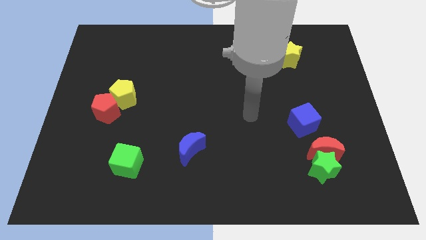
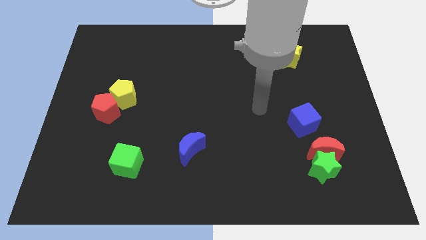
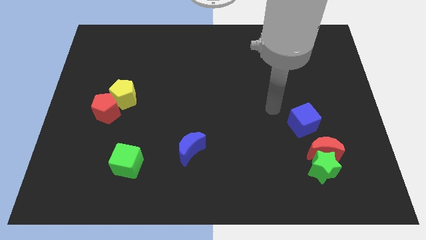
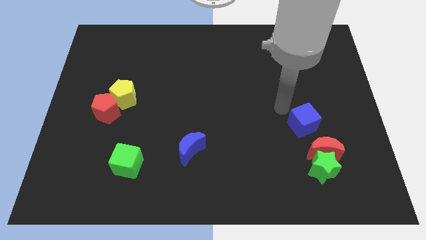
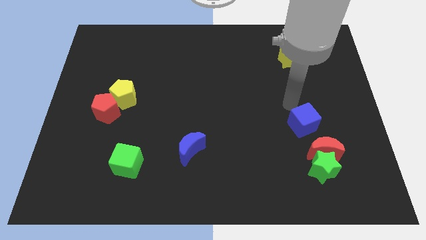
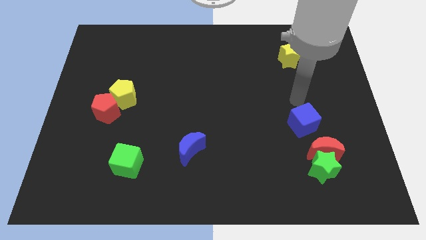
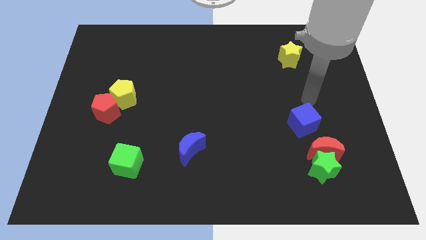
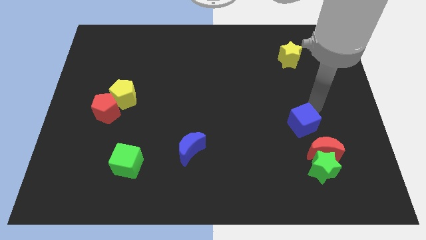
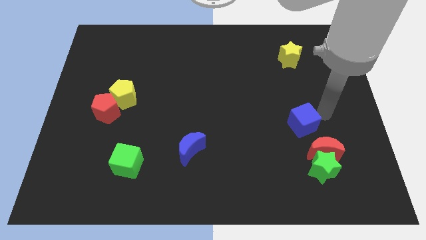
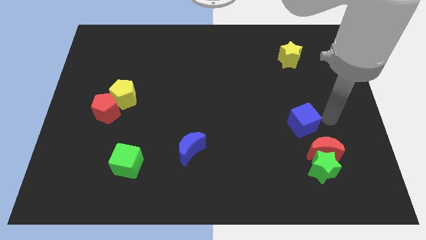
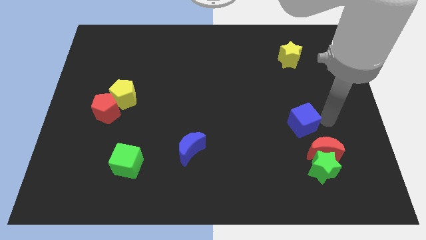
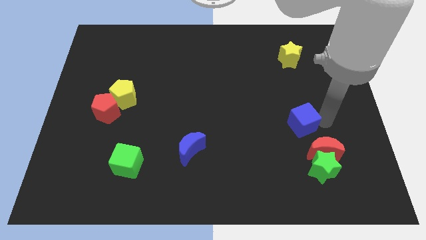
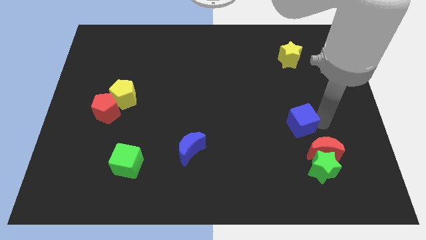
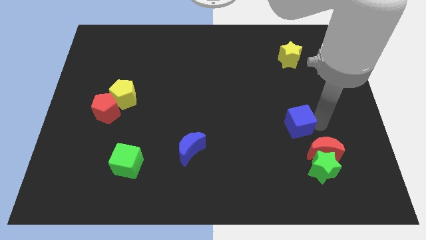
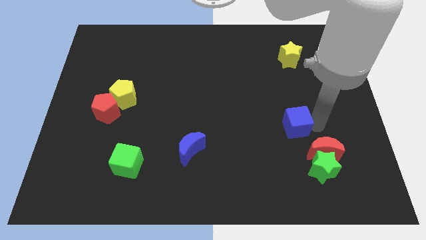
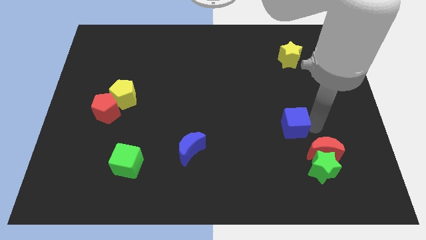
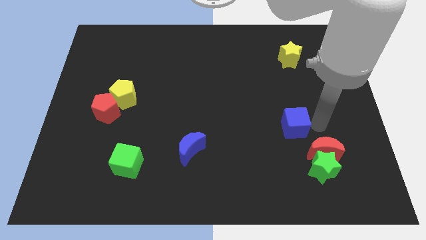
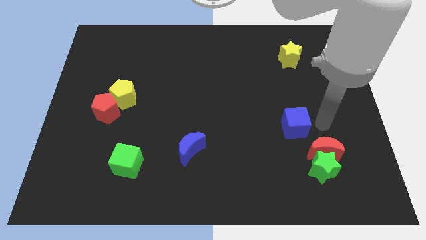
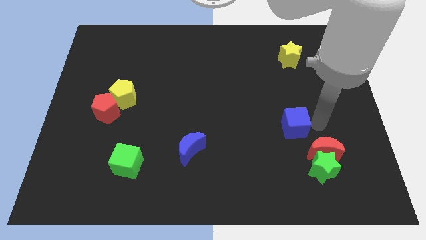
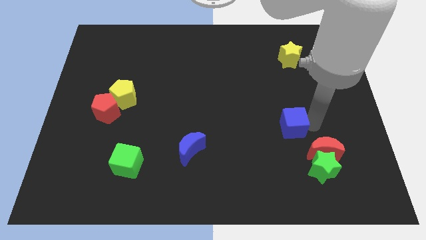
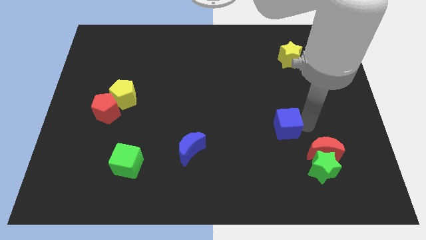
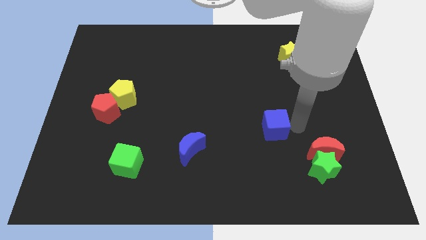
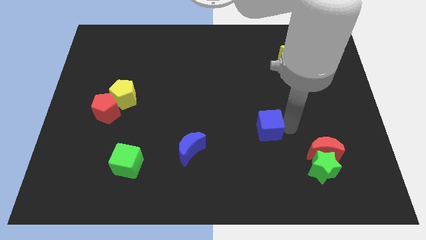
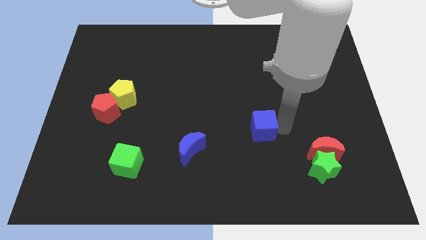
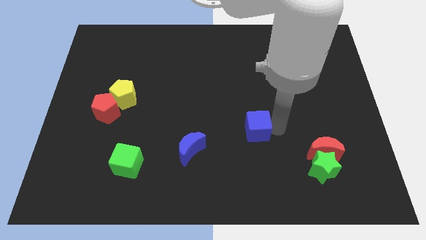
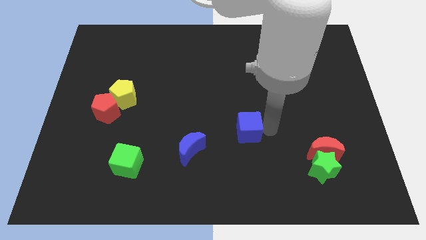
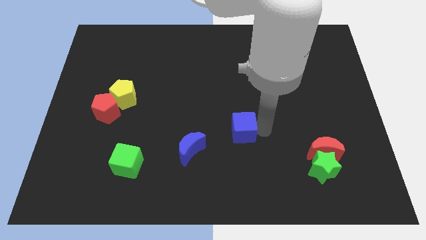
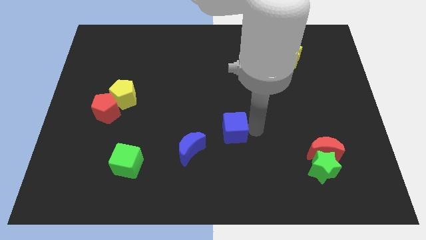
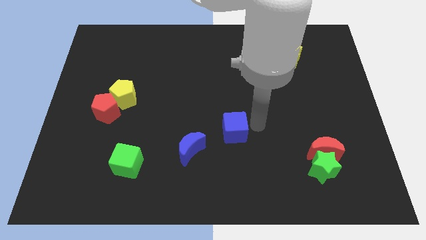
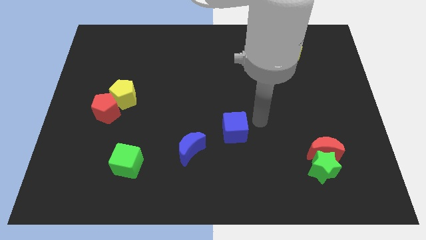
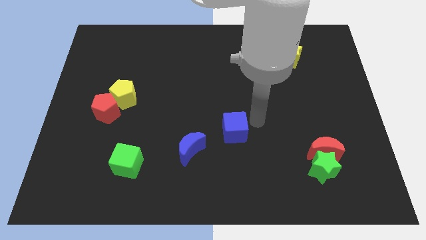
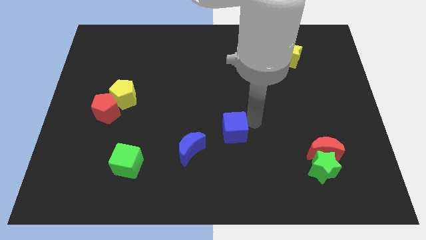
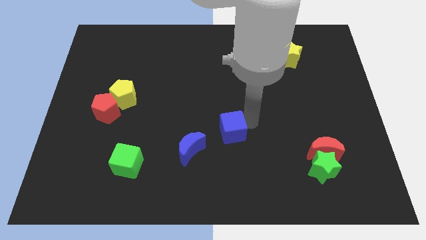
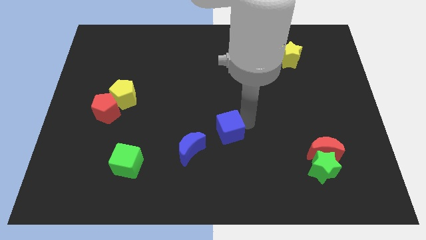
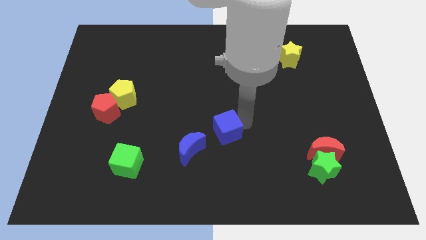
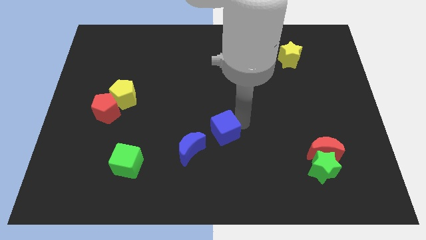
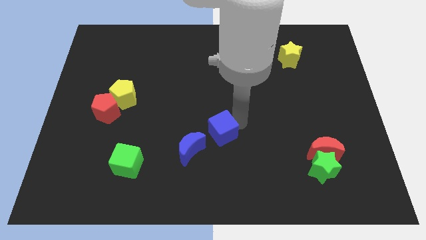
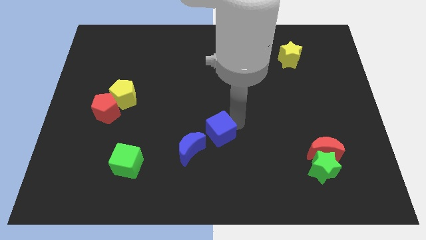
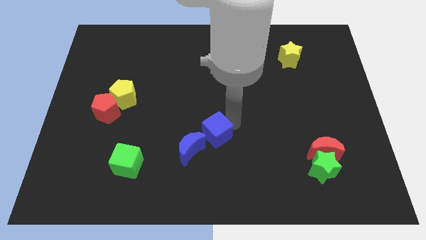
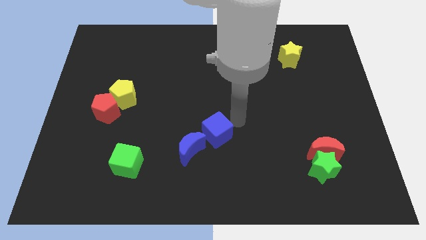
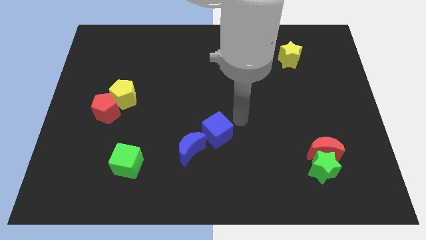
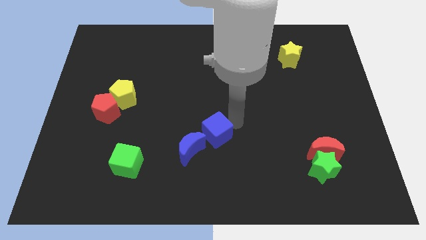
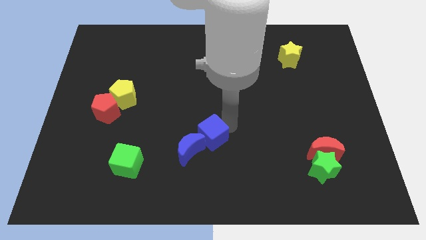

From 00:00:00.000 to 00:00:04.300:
put the blue cube close to the blue moon

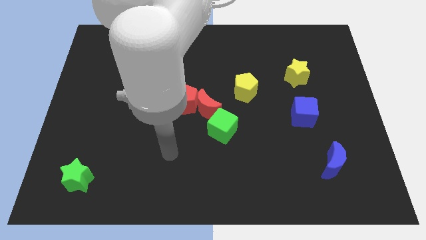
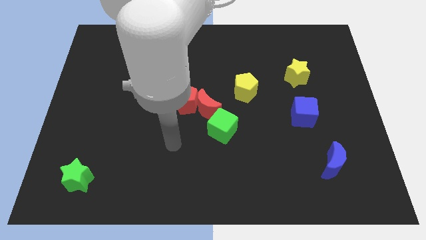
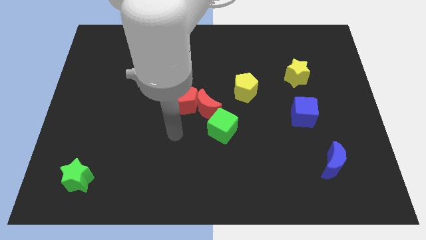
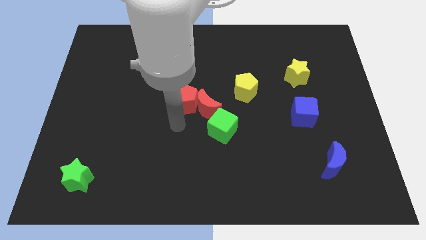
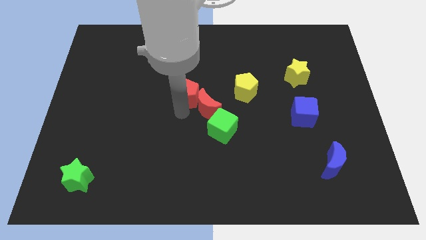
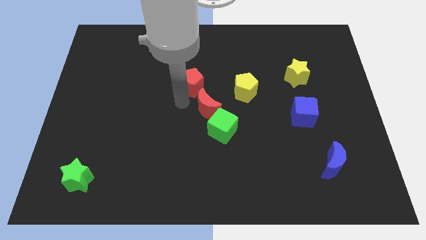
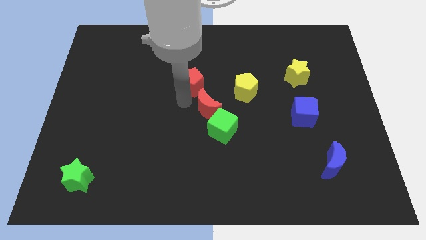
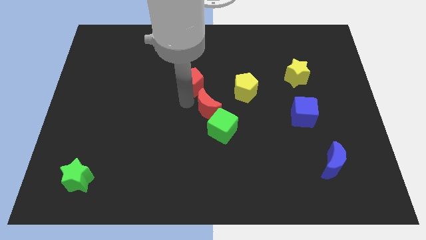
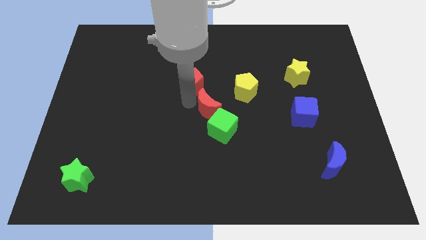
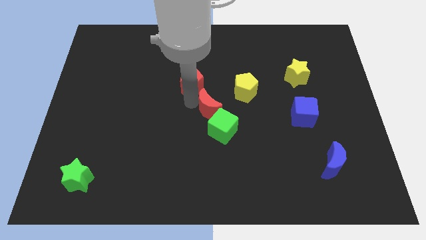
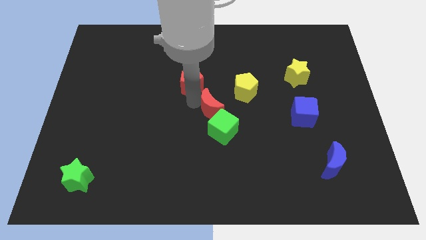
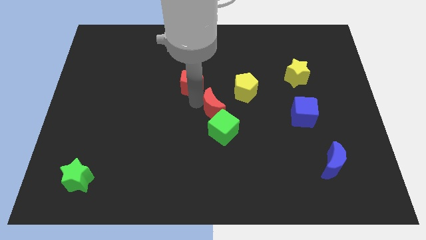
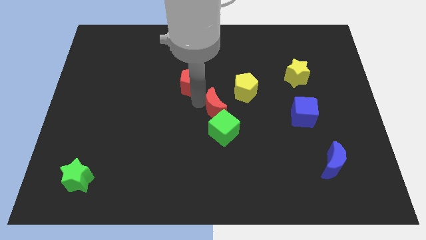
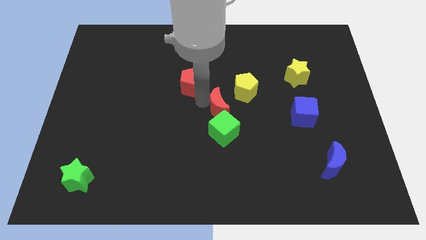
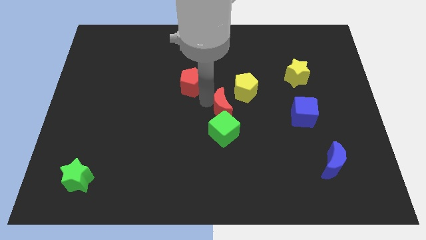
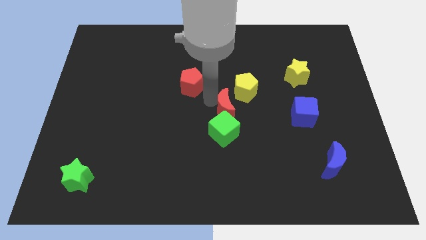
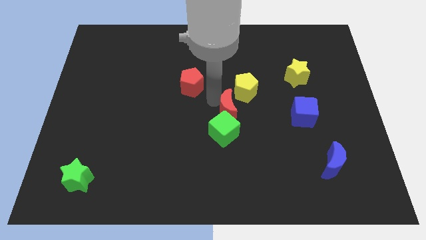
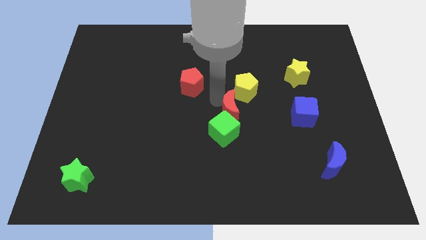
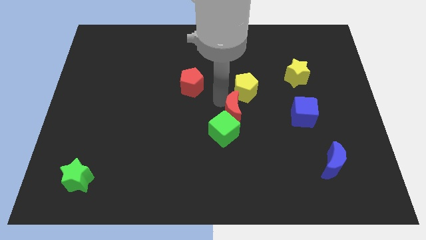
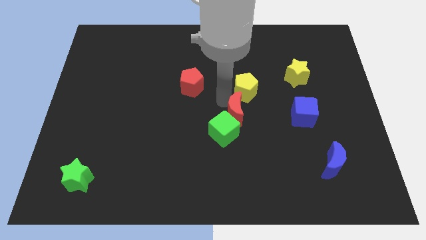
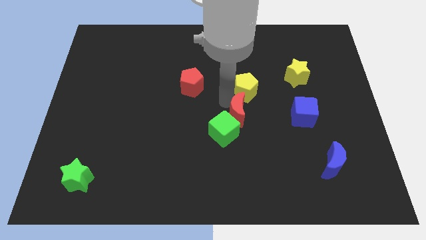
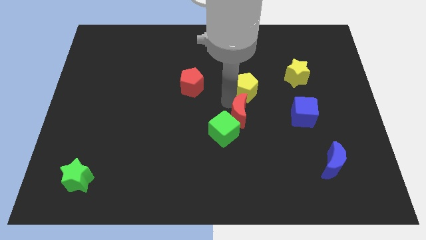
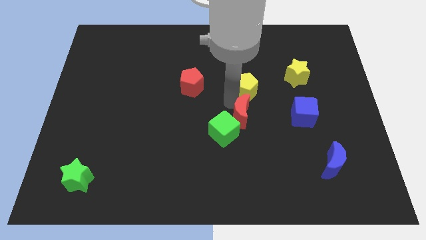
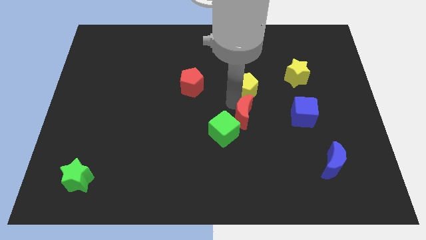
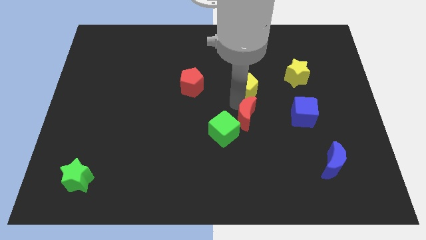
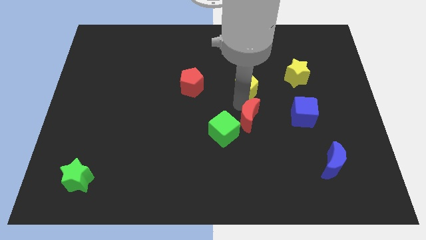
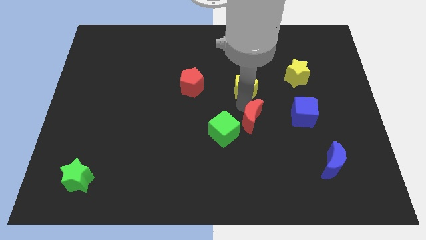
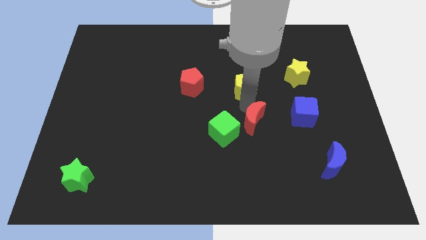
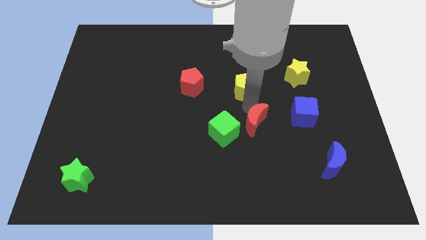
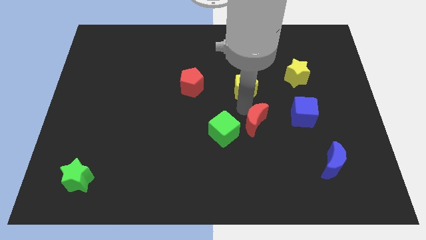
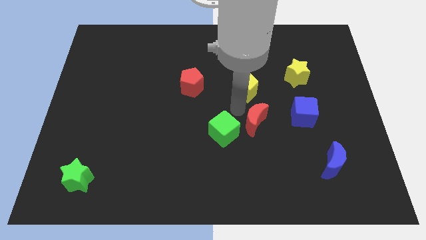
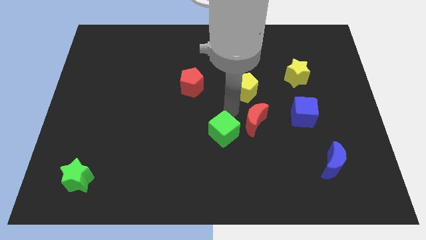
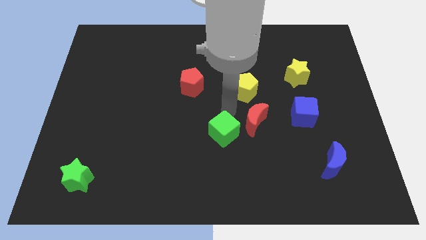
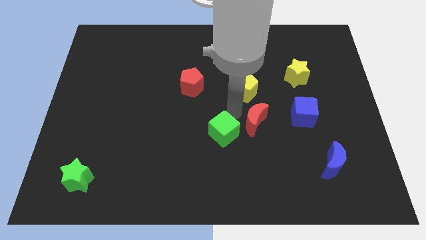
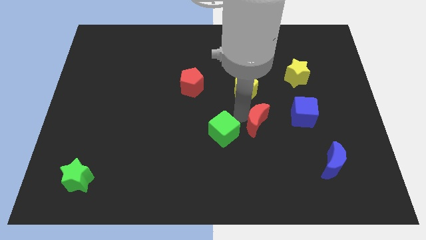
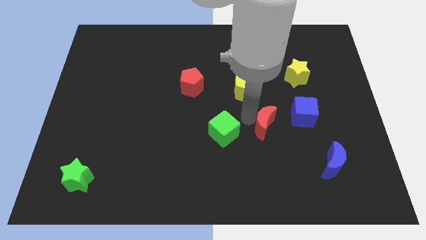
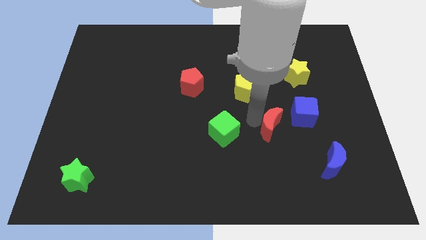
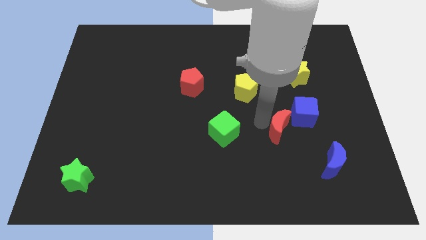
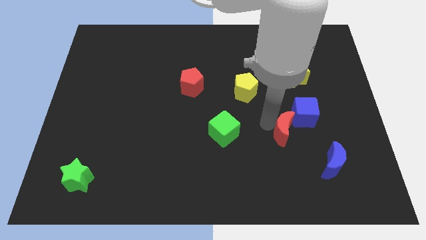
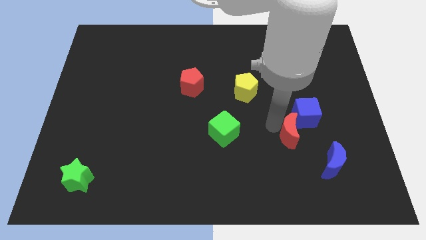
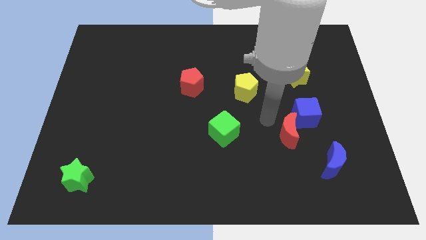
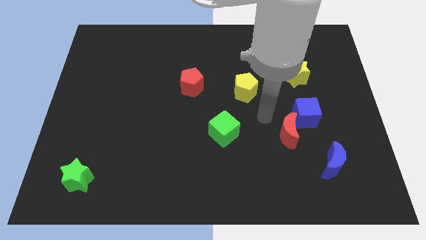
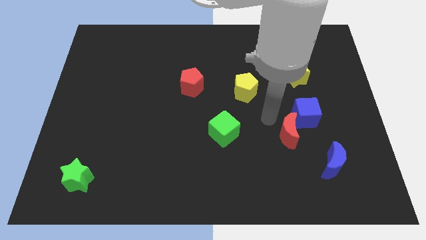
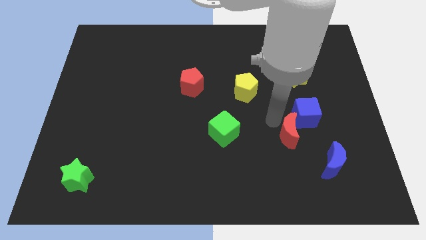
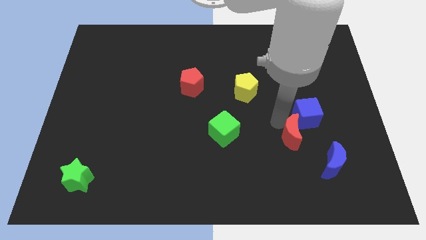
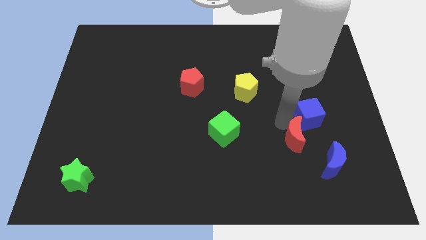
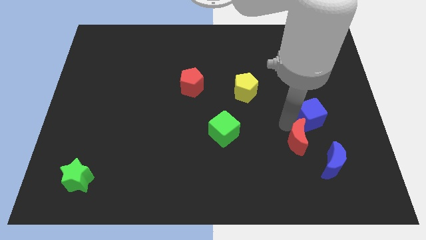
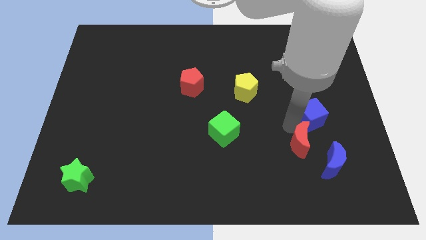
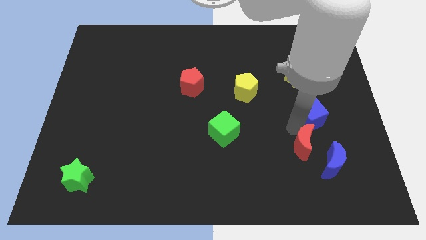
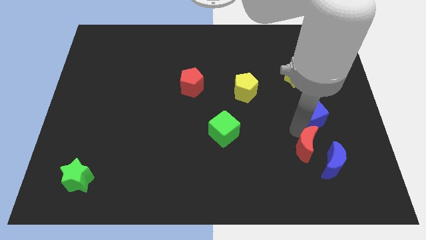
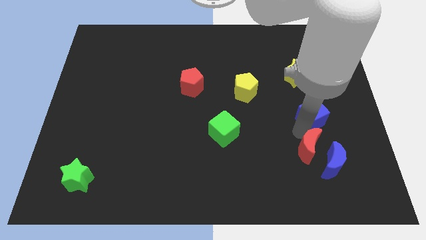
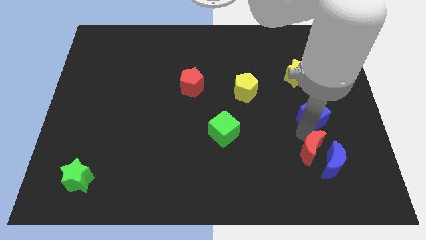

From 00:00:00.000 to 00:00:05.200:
push the red moon close to the blue moon
